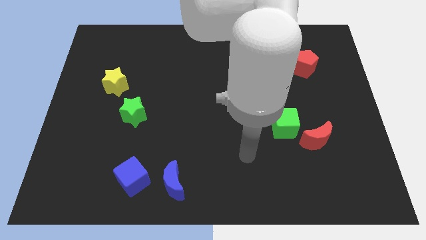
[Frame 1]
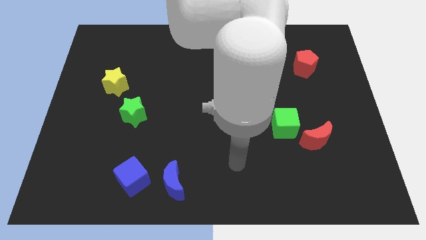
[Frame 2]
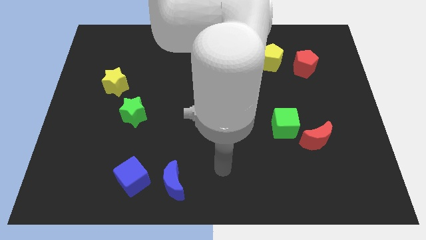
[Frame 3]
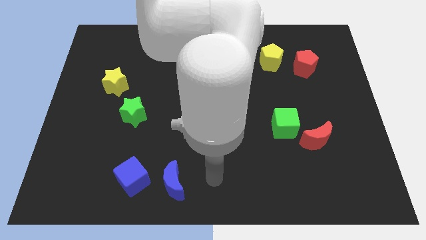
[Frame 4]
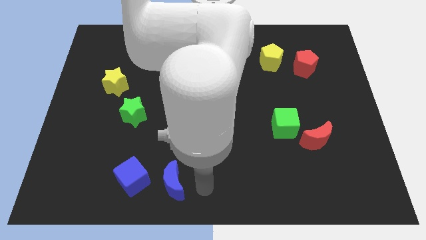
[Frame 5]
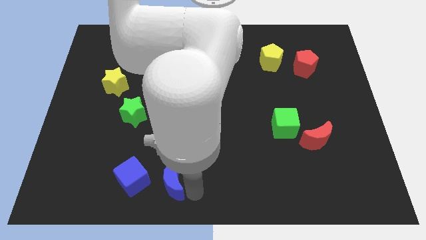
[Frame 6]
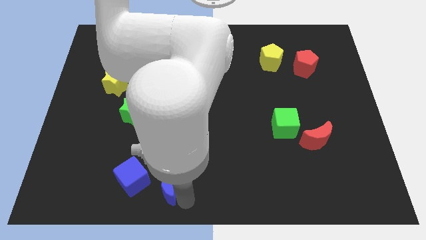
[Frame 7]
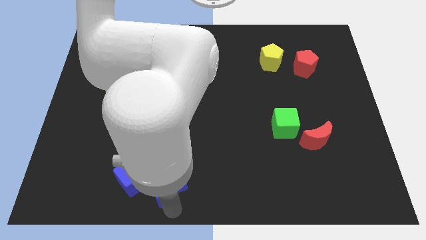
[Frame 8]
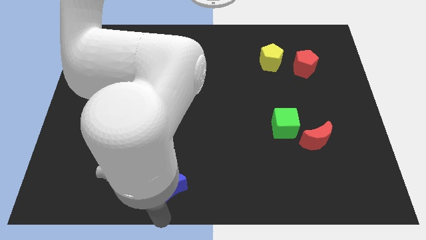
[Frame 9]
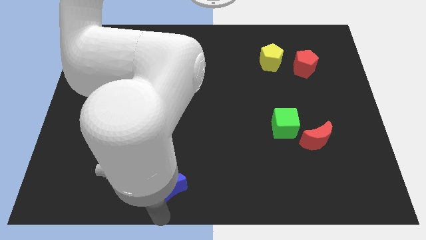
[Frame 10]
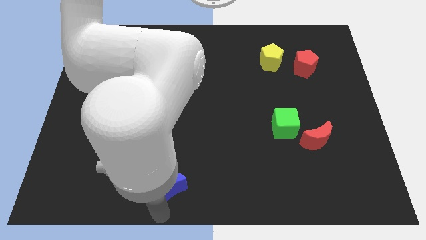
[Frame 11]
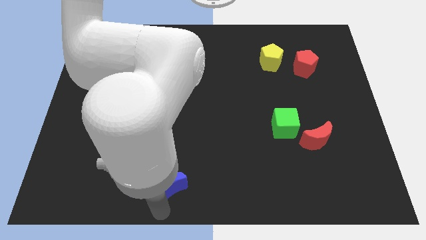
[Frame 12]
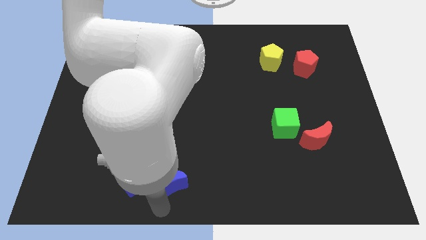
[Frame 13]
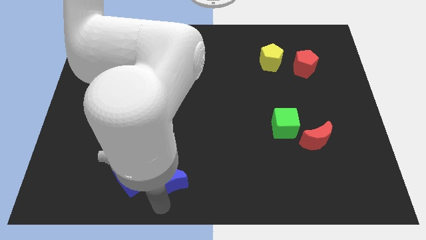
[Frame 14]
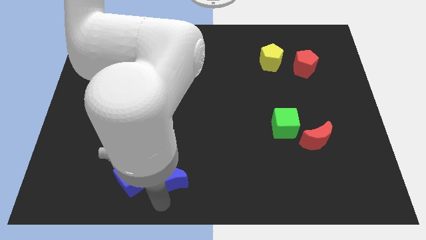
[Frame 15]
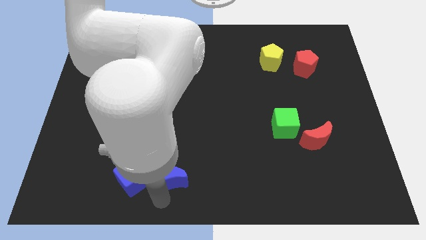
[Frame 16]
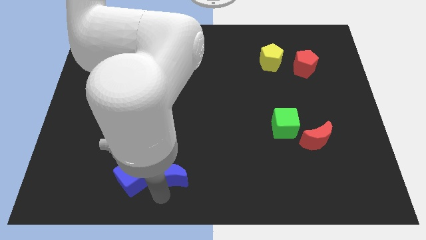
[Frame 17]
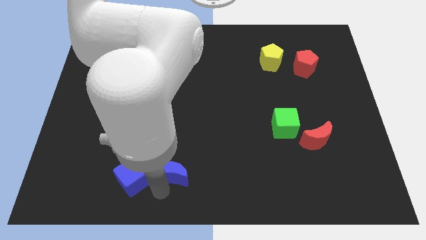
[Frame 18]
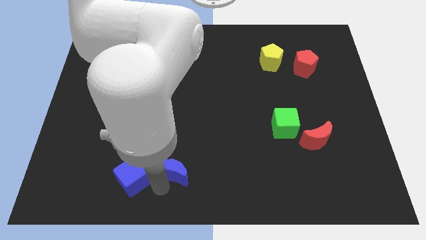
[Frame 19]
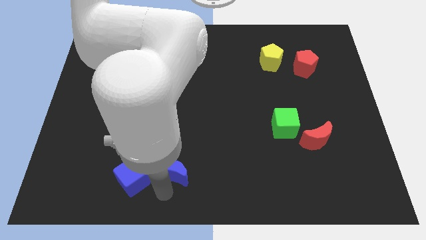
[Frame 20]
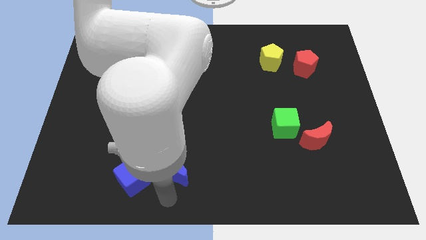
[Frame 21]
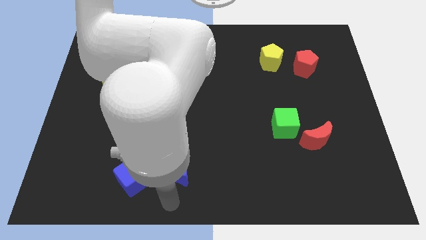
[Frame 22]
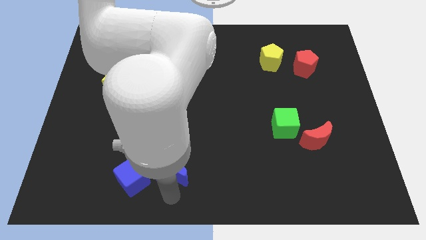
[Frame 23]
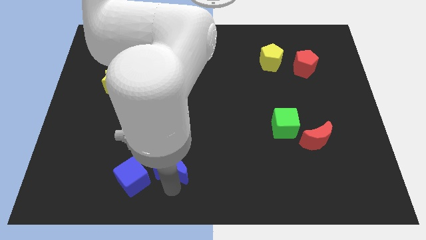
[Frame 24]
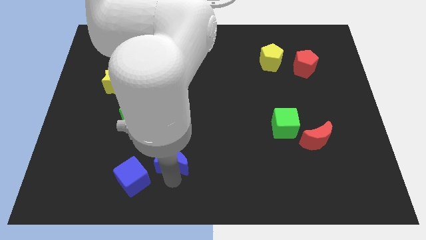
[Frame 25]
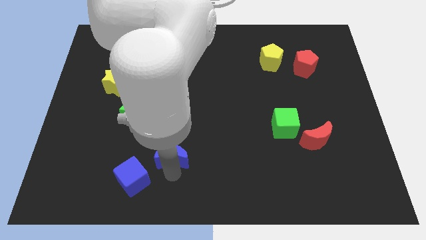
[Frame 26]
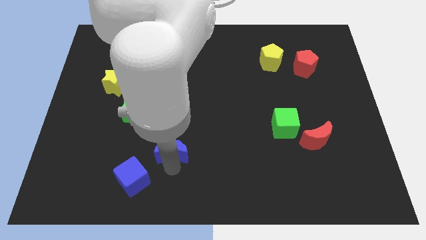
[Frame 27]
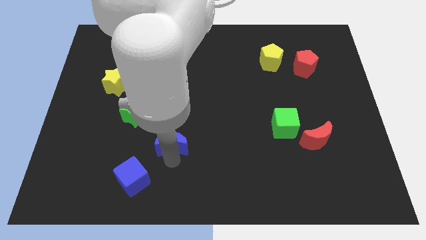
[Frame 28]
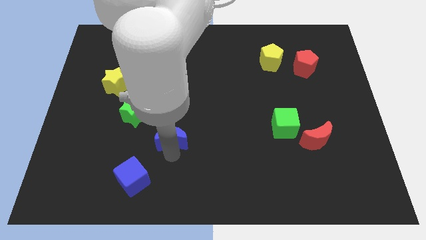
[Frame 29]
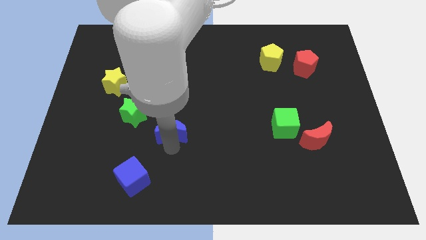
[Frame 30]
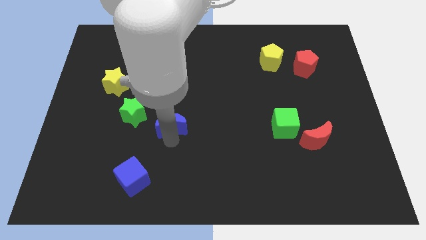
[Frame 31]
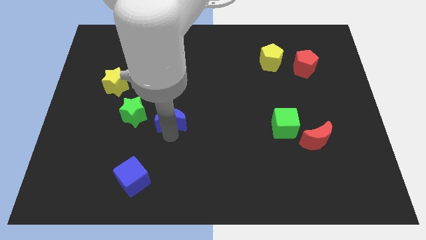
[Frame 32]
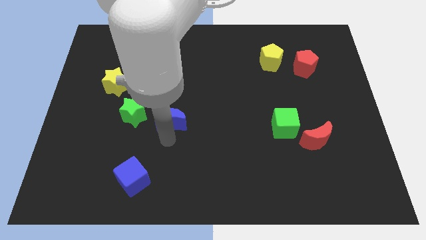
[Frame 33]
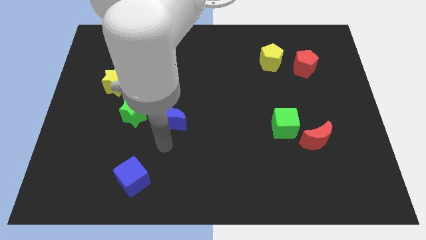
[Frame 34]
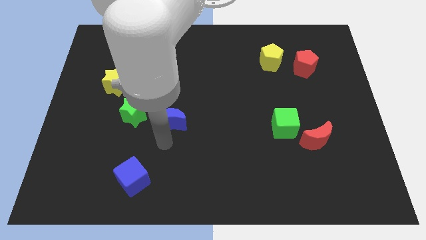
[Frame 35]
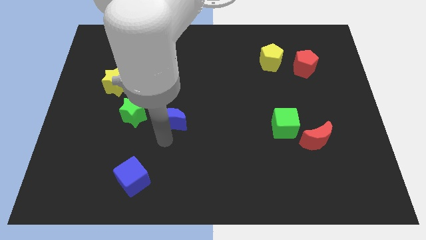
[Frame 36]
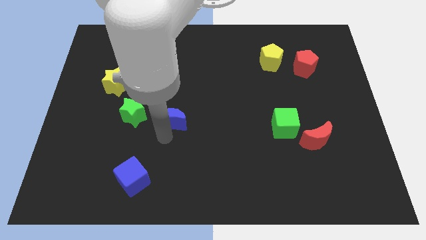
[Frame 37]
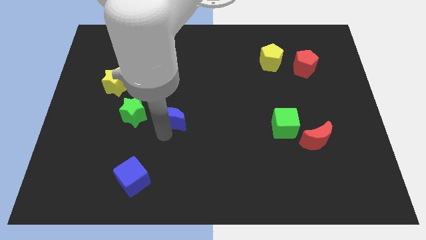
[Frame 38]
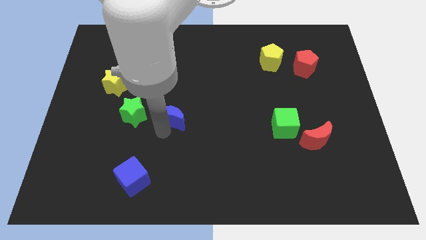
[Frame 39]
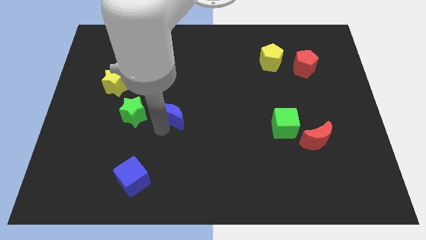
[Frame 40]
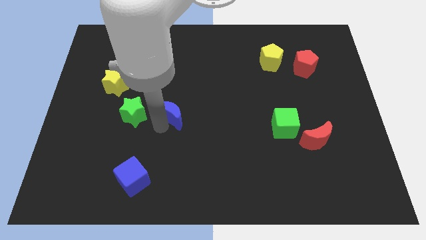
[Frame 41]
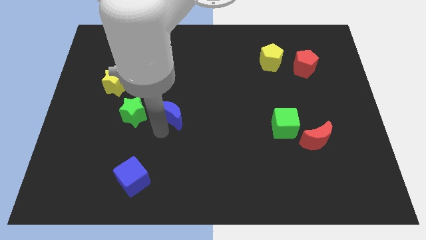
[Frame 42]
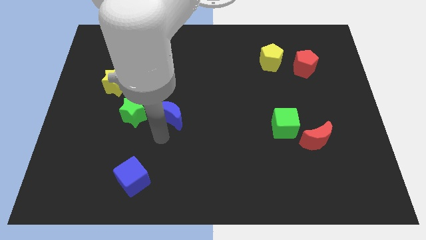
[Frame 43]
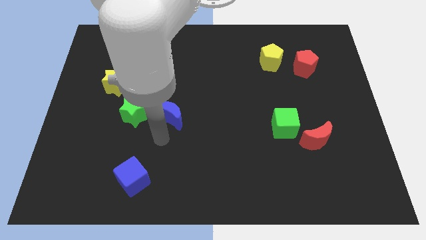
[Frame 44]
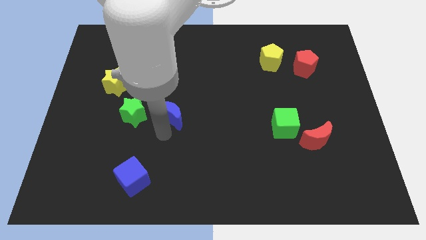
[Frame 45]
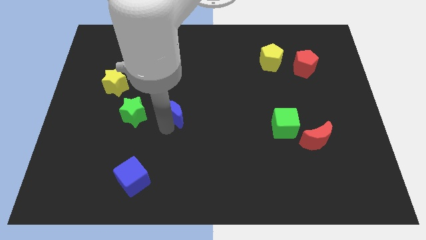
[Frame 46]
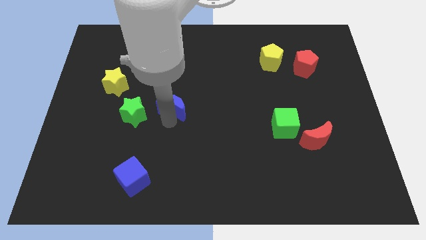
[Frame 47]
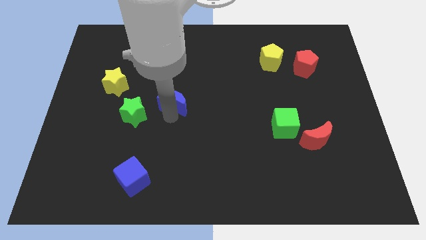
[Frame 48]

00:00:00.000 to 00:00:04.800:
move the blue moon up

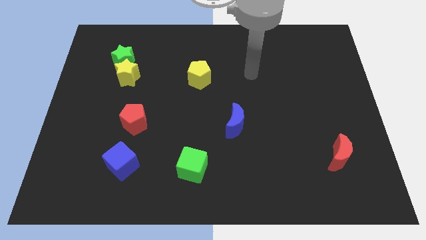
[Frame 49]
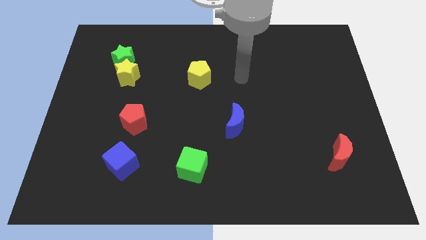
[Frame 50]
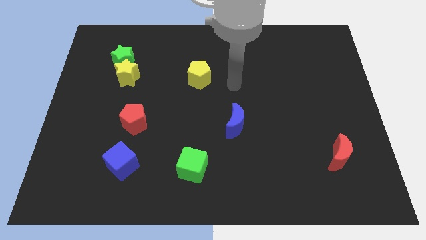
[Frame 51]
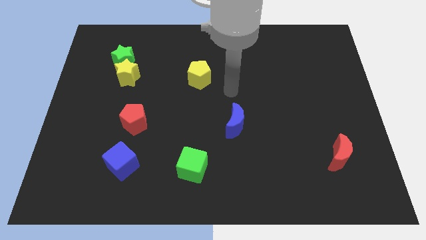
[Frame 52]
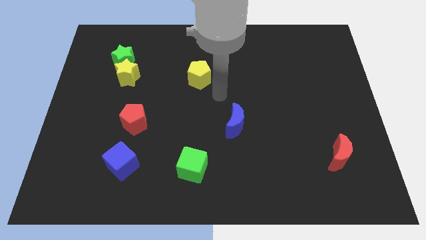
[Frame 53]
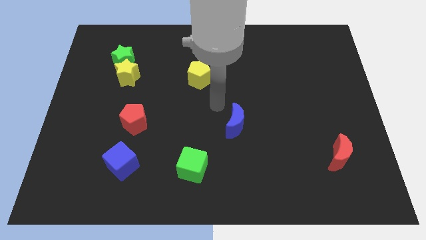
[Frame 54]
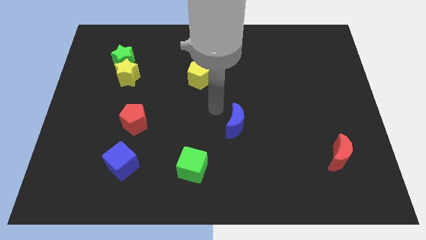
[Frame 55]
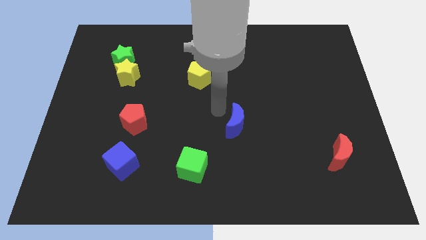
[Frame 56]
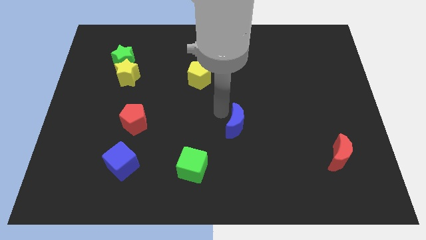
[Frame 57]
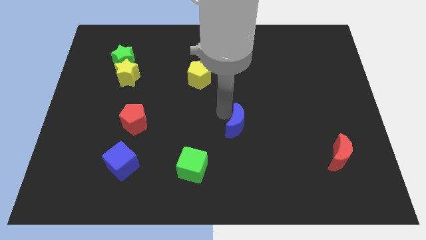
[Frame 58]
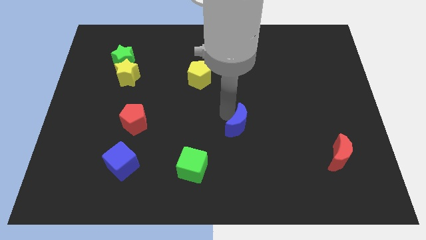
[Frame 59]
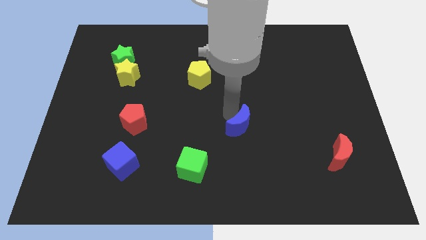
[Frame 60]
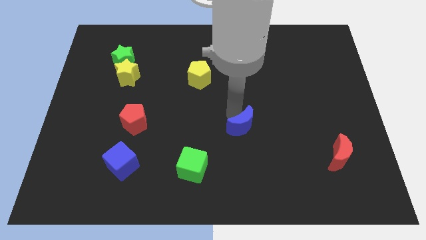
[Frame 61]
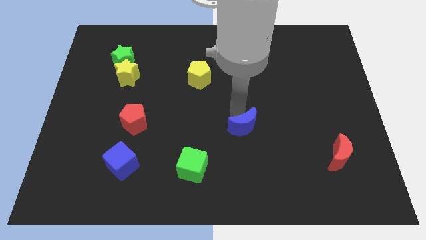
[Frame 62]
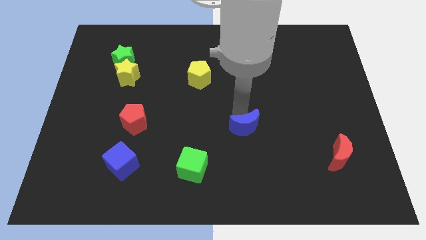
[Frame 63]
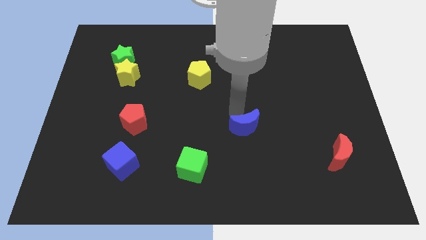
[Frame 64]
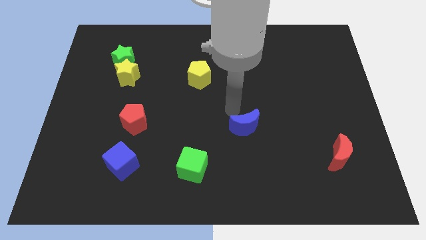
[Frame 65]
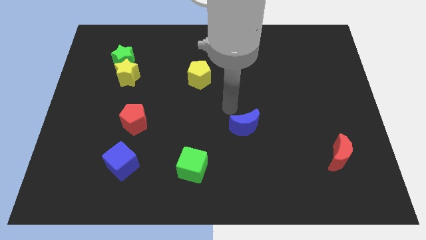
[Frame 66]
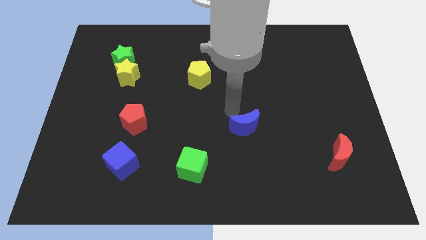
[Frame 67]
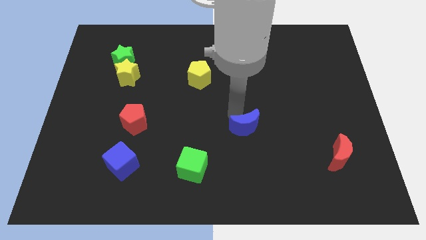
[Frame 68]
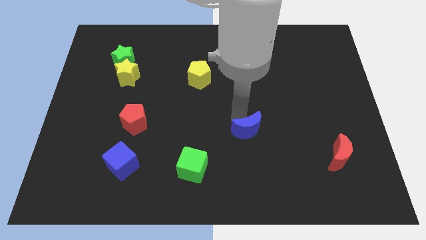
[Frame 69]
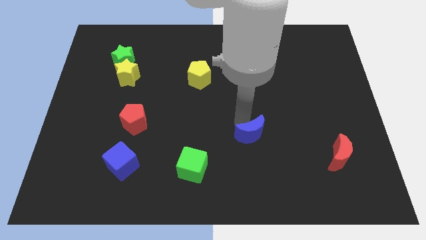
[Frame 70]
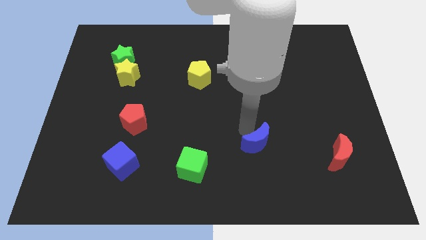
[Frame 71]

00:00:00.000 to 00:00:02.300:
move the blue moon a little diagonally downwards and to the right

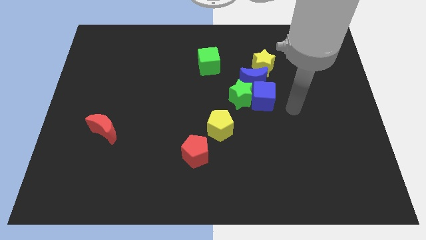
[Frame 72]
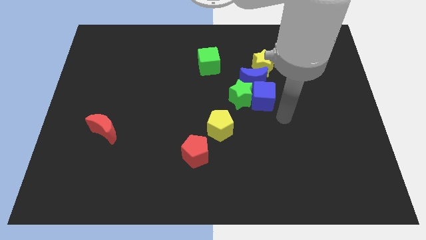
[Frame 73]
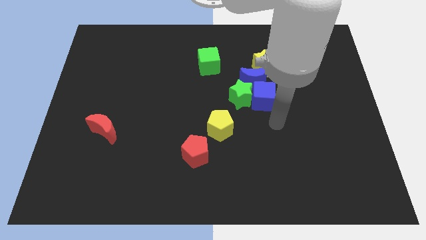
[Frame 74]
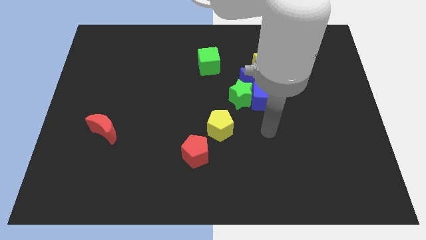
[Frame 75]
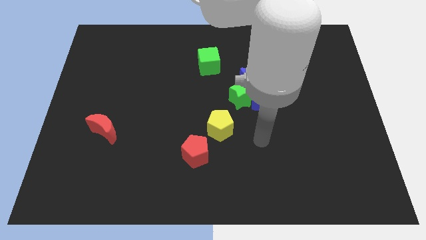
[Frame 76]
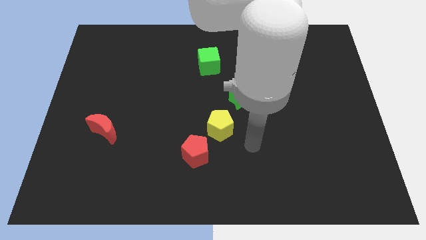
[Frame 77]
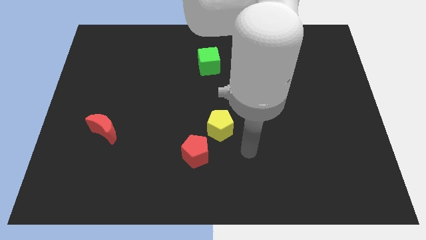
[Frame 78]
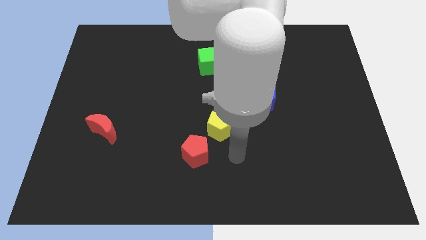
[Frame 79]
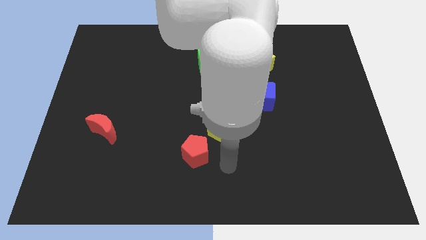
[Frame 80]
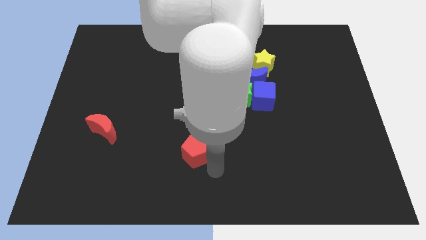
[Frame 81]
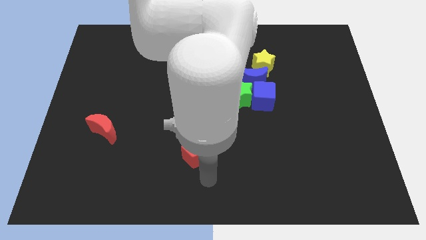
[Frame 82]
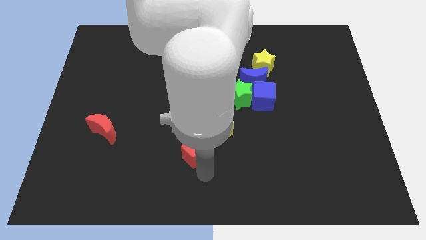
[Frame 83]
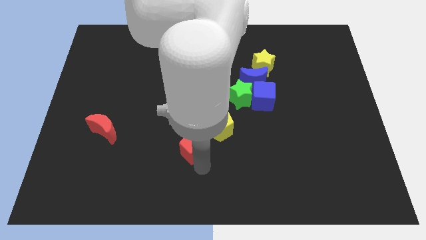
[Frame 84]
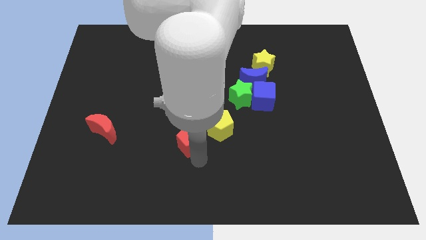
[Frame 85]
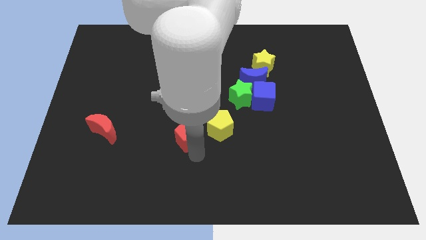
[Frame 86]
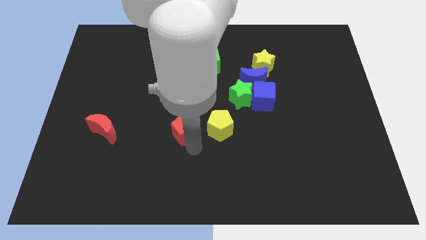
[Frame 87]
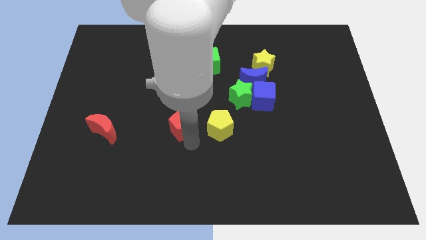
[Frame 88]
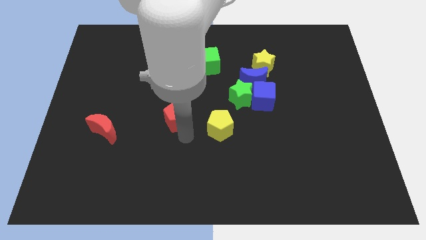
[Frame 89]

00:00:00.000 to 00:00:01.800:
slightly move the red pentagon upwards
